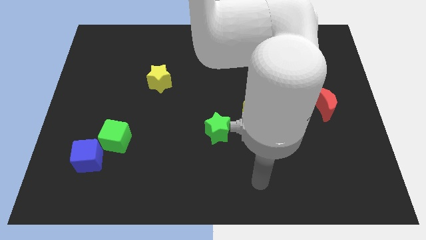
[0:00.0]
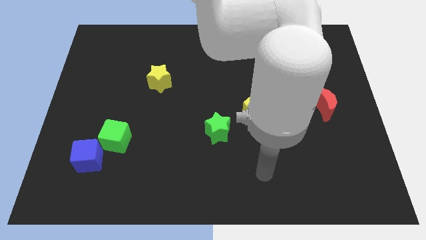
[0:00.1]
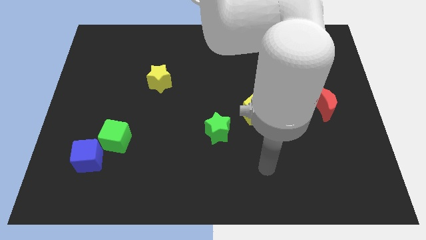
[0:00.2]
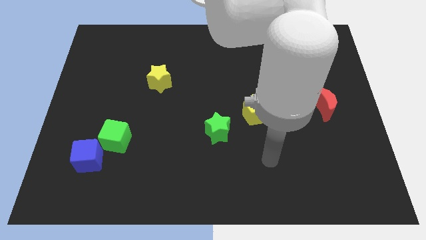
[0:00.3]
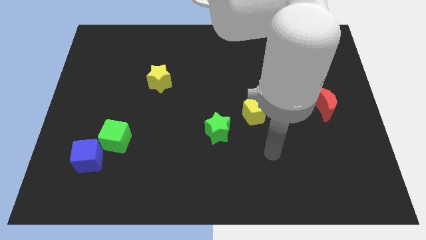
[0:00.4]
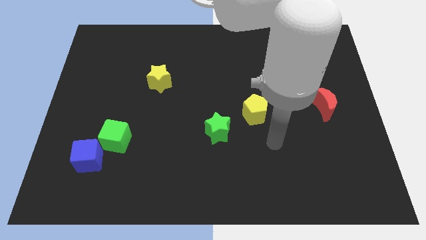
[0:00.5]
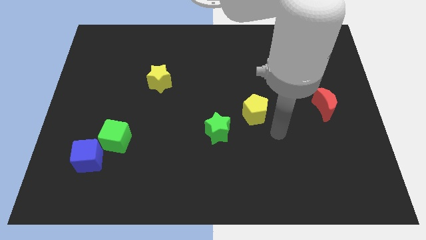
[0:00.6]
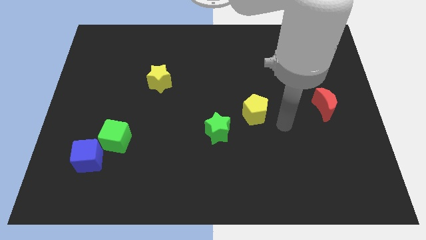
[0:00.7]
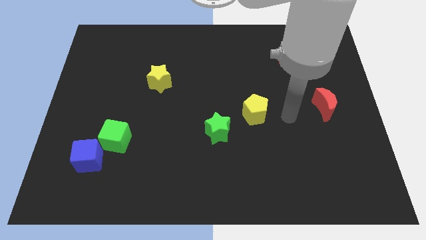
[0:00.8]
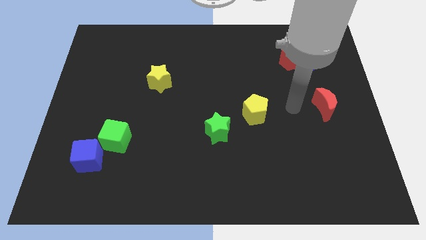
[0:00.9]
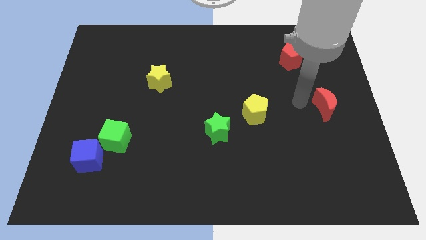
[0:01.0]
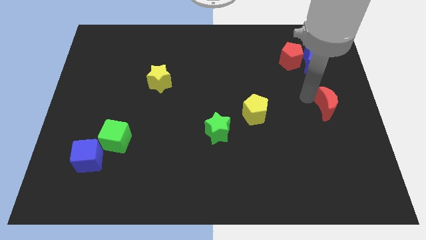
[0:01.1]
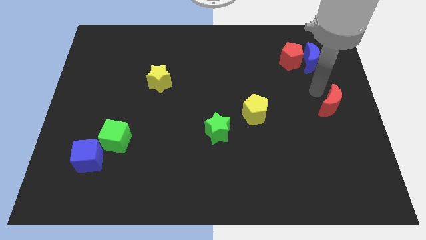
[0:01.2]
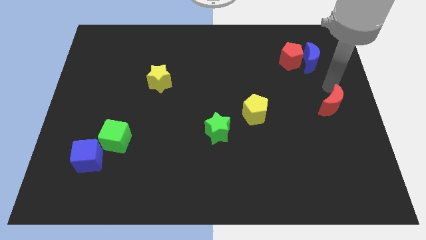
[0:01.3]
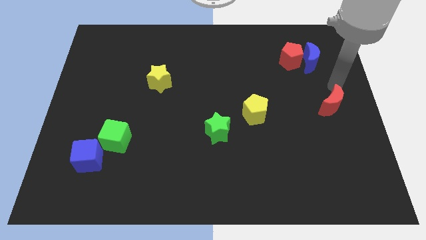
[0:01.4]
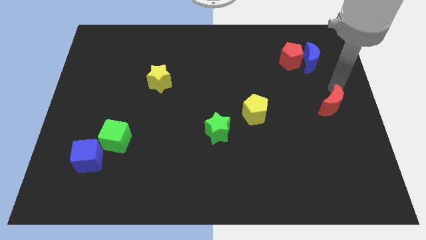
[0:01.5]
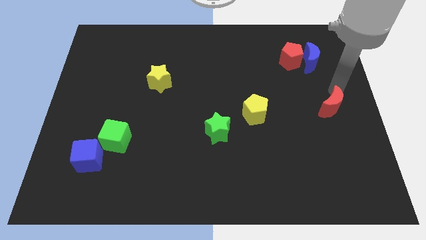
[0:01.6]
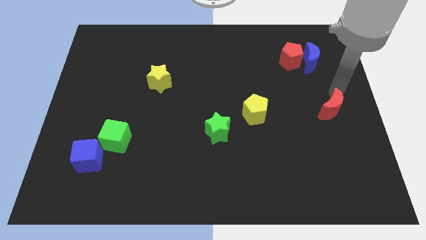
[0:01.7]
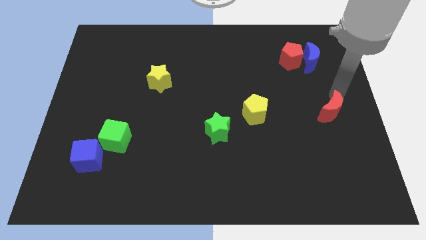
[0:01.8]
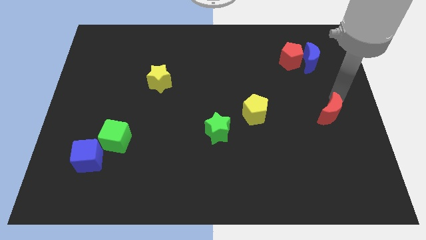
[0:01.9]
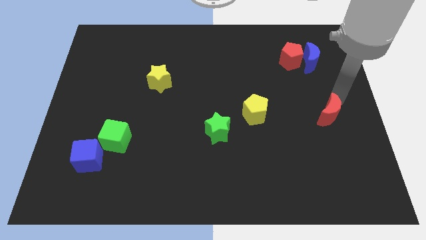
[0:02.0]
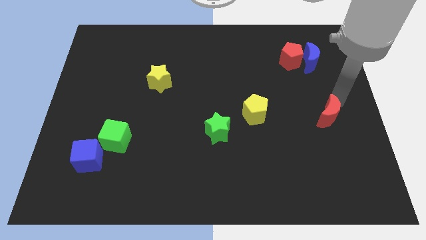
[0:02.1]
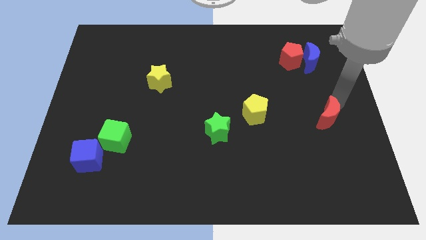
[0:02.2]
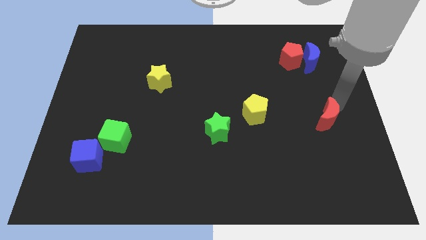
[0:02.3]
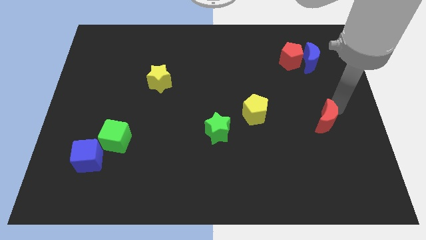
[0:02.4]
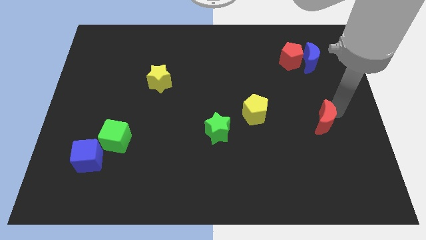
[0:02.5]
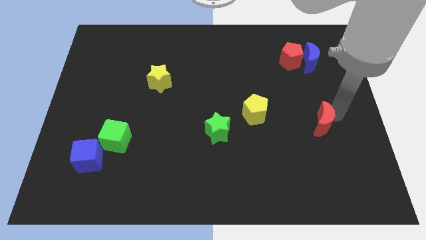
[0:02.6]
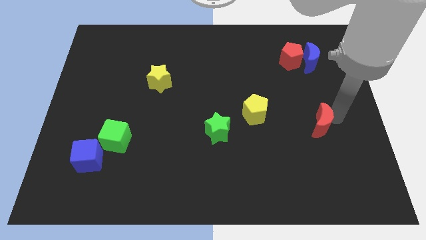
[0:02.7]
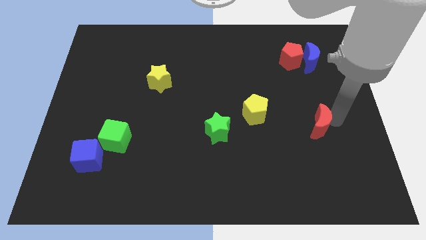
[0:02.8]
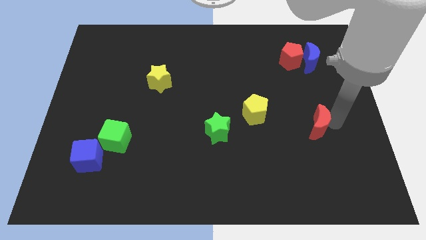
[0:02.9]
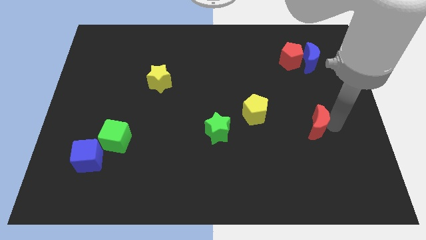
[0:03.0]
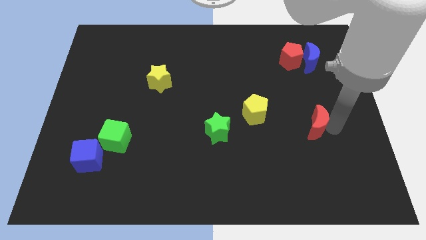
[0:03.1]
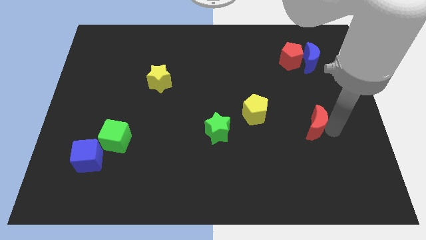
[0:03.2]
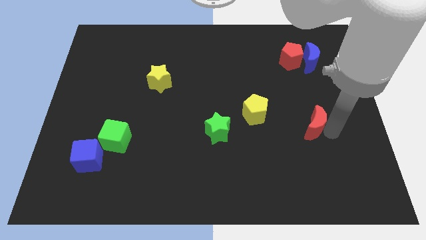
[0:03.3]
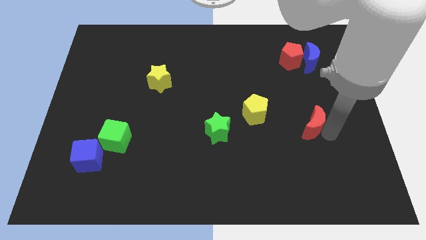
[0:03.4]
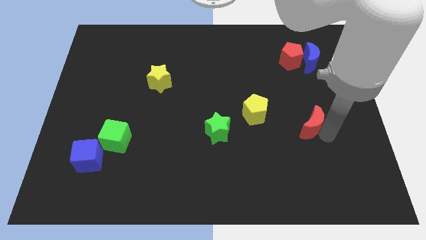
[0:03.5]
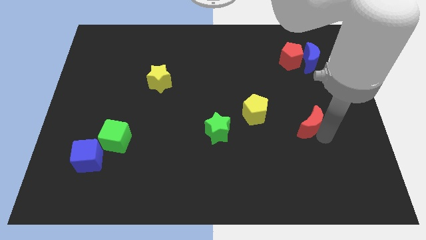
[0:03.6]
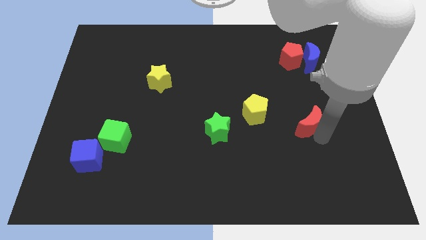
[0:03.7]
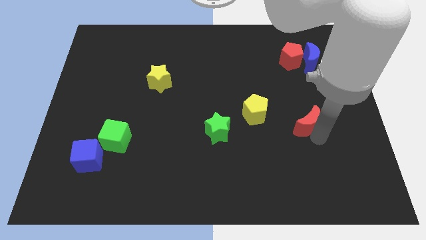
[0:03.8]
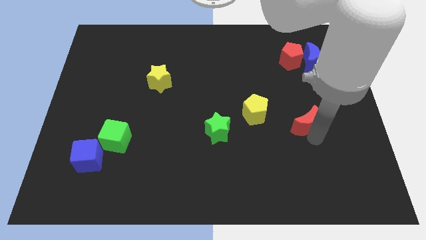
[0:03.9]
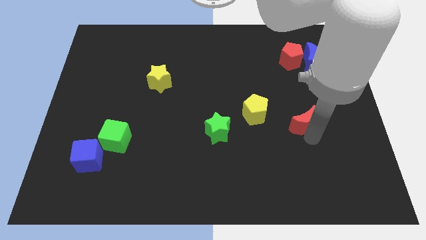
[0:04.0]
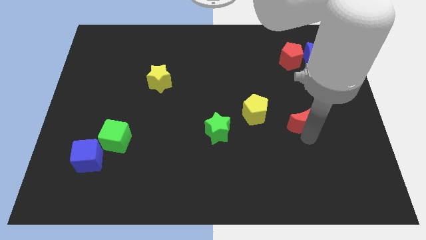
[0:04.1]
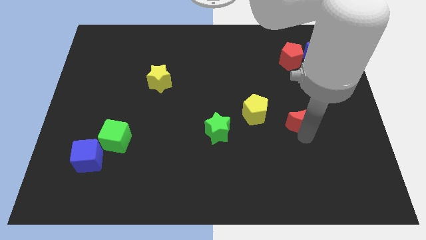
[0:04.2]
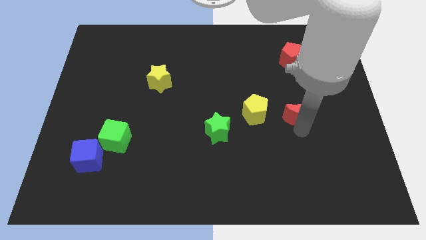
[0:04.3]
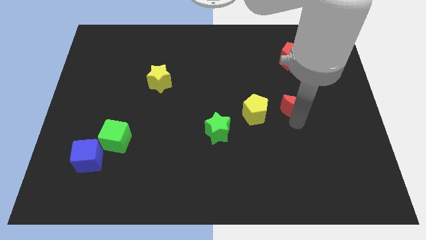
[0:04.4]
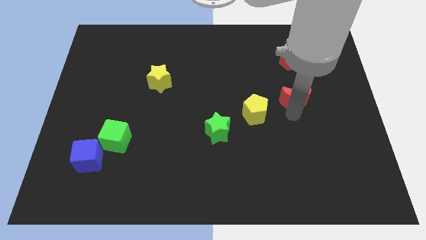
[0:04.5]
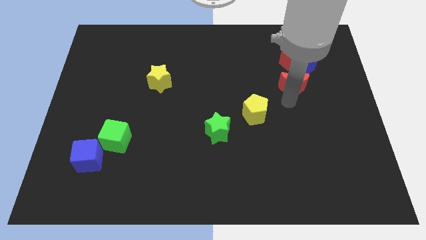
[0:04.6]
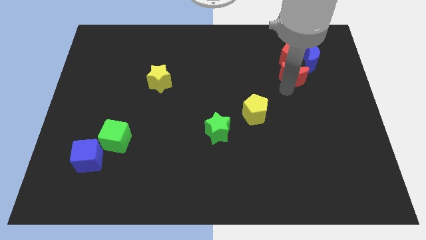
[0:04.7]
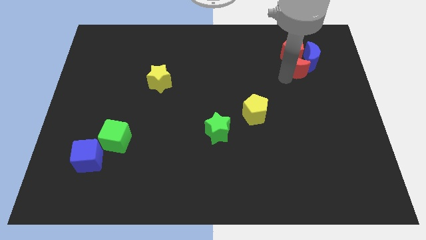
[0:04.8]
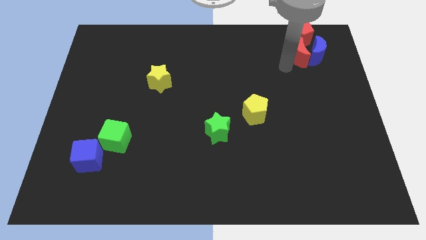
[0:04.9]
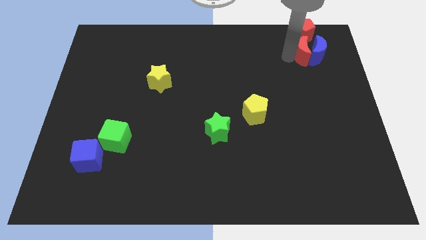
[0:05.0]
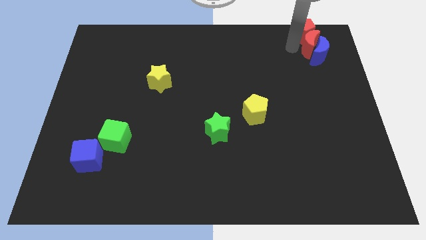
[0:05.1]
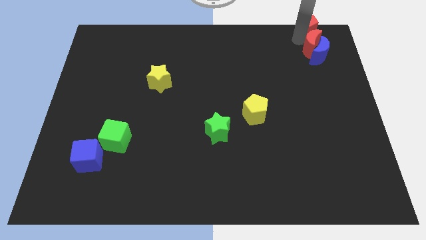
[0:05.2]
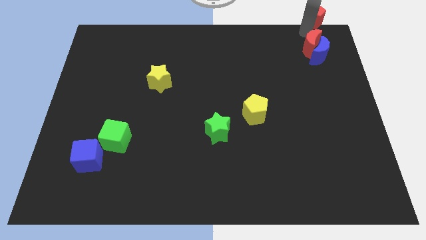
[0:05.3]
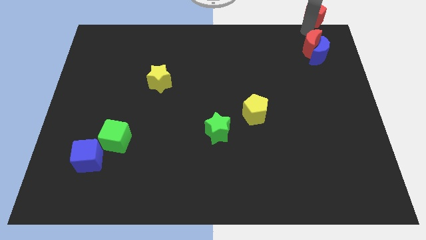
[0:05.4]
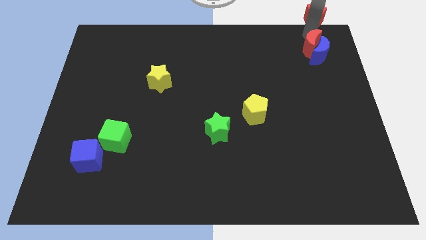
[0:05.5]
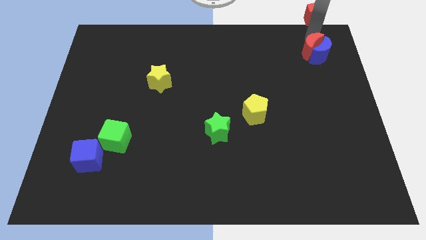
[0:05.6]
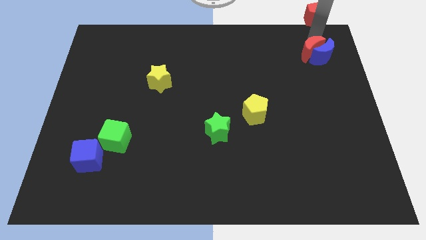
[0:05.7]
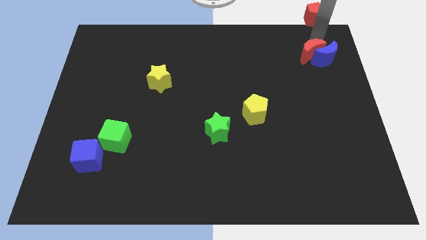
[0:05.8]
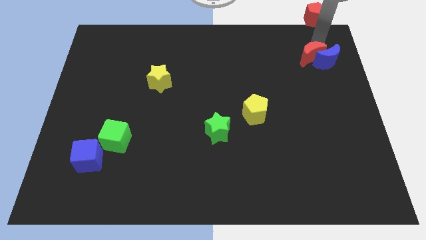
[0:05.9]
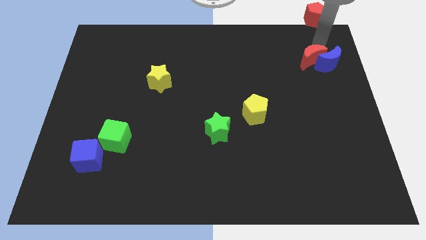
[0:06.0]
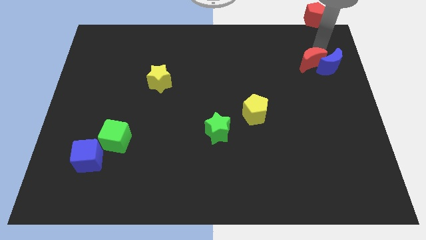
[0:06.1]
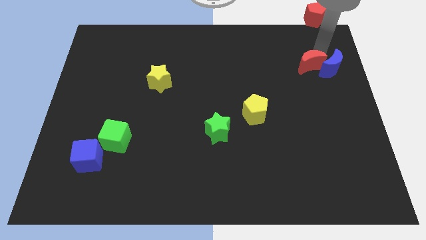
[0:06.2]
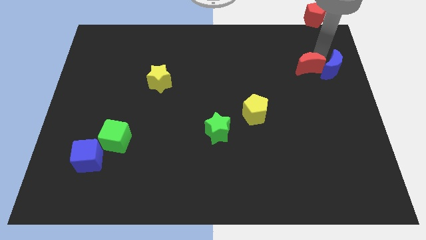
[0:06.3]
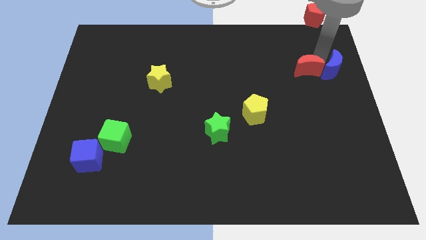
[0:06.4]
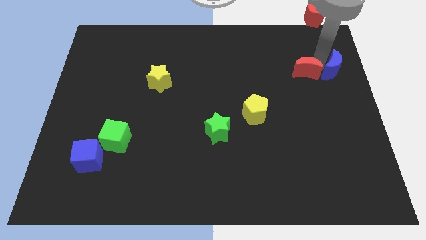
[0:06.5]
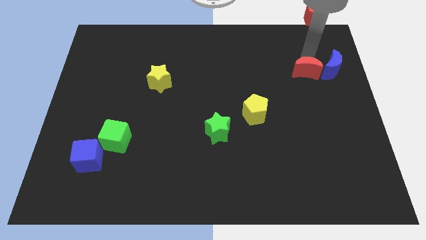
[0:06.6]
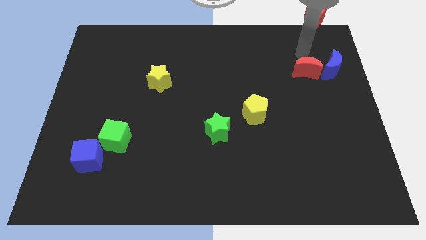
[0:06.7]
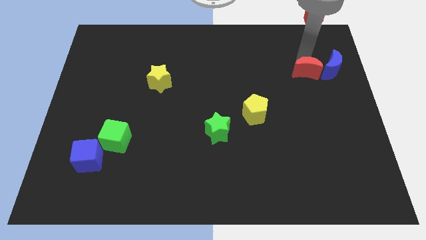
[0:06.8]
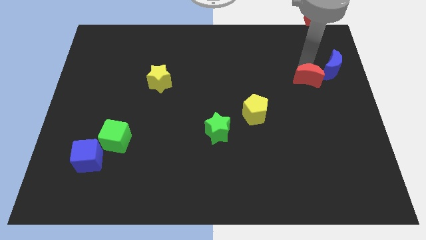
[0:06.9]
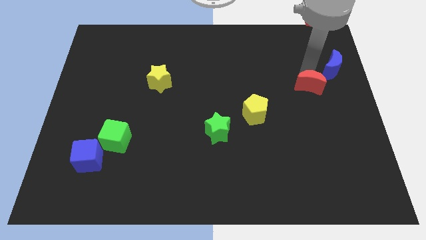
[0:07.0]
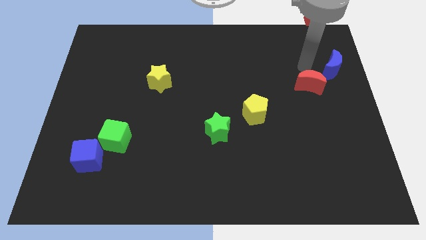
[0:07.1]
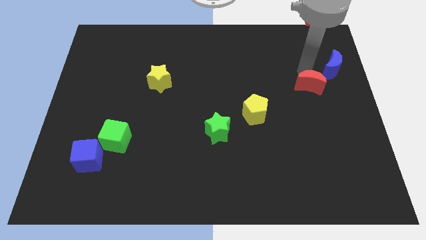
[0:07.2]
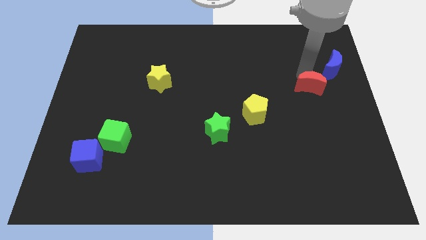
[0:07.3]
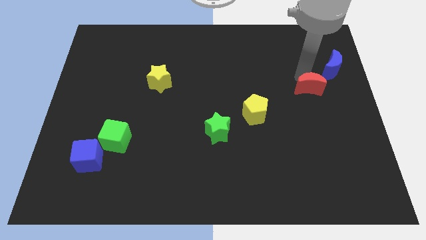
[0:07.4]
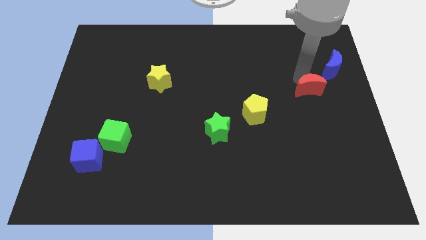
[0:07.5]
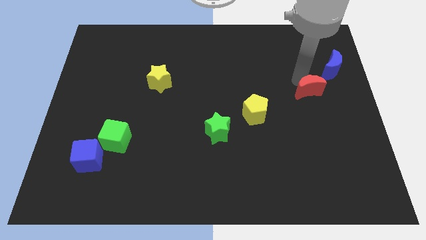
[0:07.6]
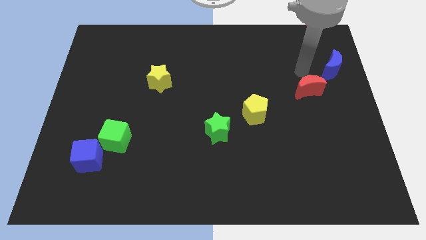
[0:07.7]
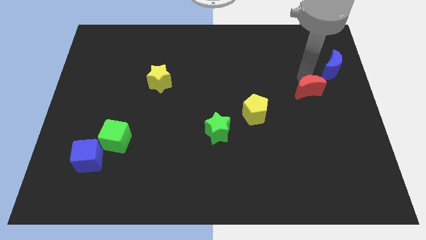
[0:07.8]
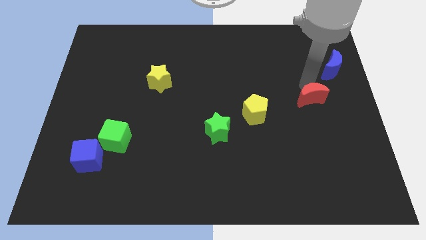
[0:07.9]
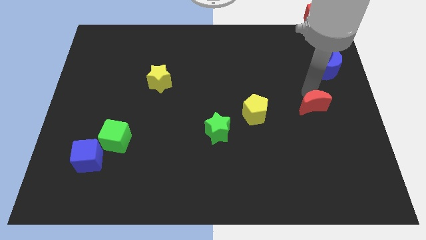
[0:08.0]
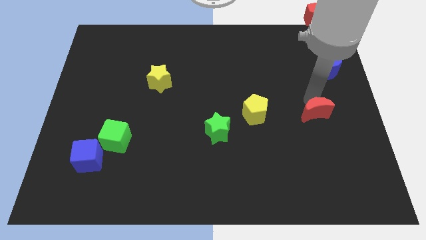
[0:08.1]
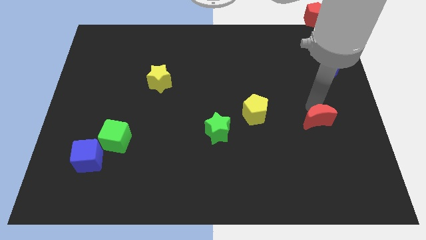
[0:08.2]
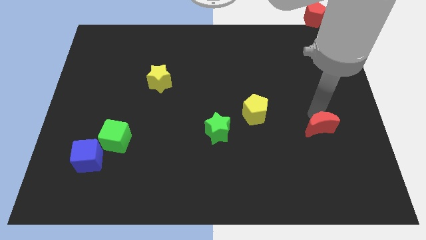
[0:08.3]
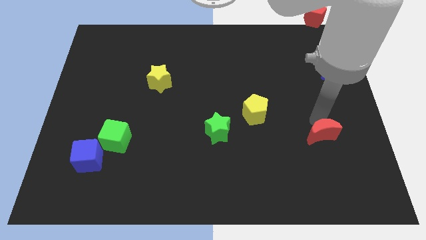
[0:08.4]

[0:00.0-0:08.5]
move the red moon a bit downwards

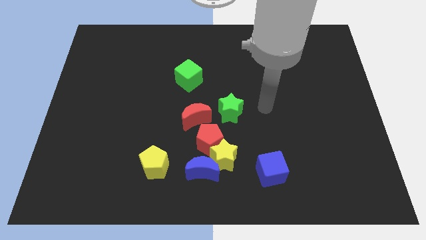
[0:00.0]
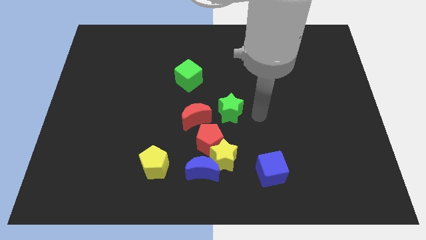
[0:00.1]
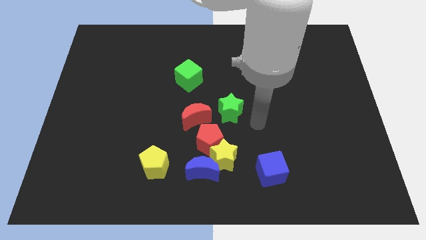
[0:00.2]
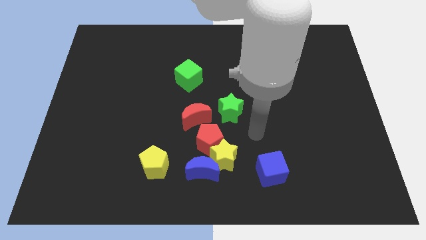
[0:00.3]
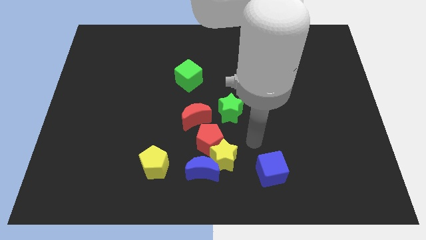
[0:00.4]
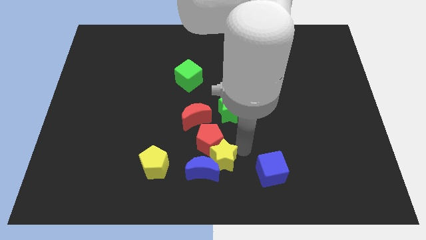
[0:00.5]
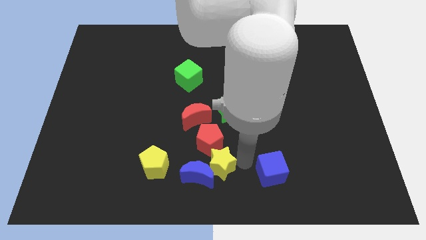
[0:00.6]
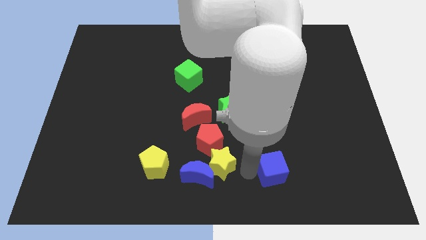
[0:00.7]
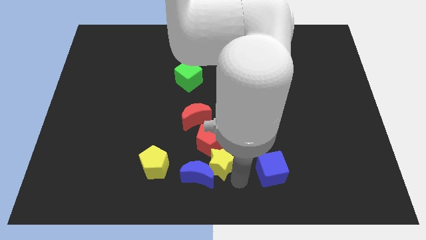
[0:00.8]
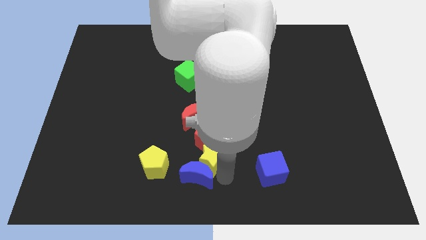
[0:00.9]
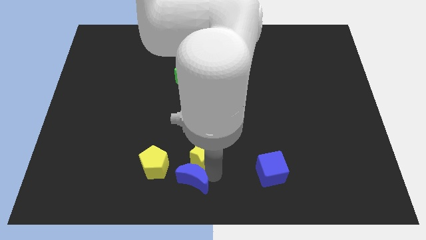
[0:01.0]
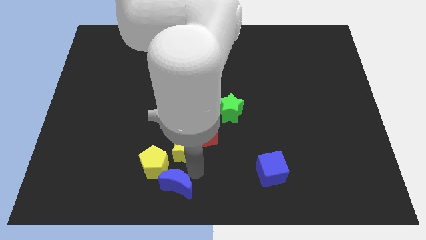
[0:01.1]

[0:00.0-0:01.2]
move the yellow star somewhat up and left
